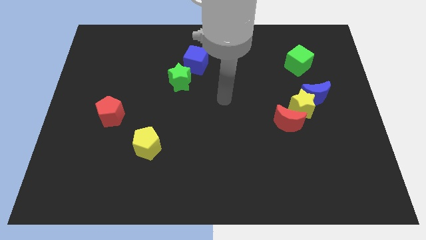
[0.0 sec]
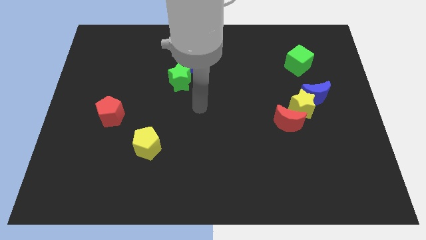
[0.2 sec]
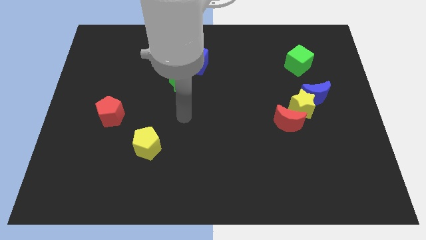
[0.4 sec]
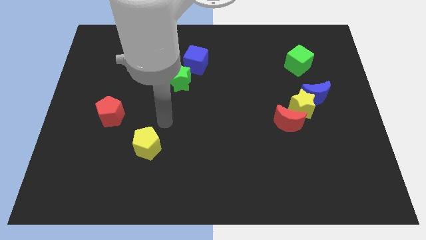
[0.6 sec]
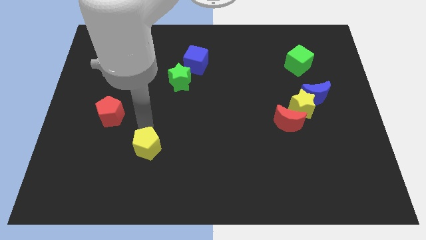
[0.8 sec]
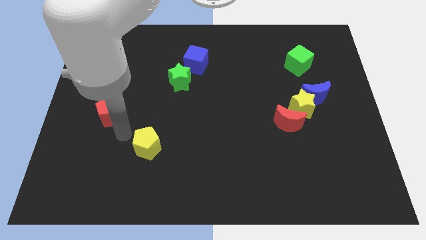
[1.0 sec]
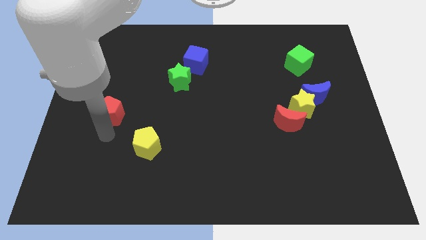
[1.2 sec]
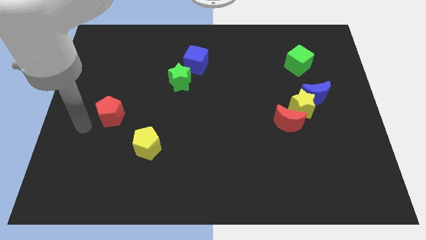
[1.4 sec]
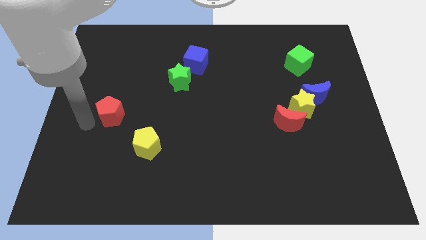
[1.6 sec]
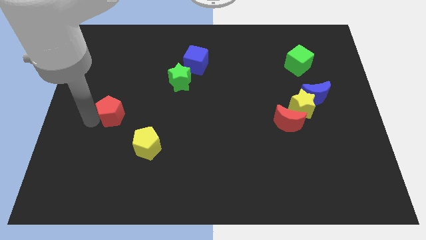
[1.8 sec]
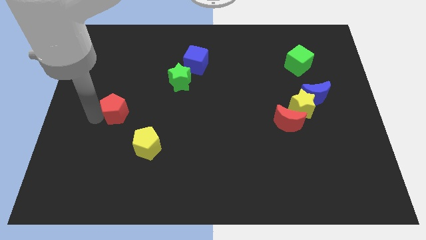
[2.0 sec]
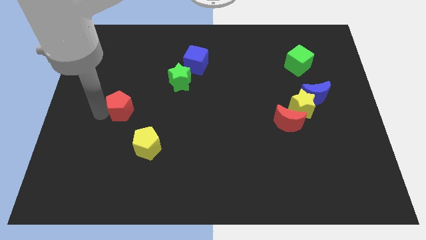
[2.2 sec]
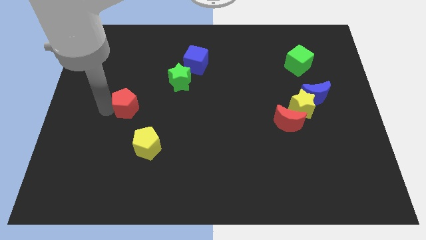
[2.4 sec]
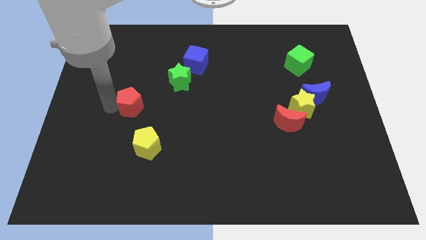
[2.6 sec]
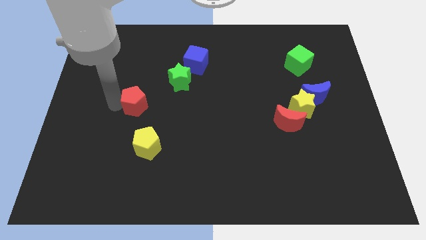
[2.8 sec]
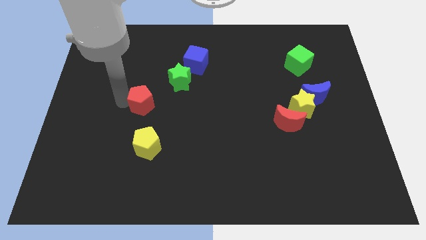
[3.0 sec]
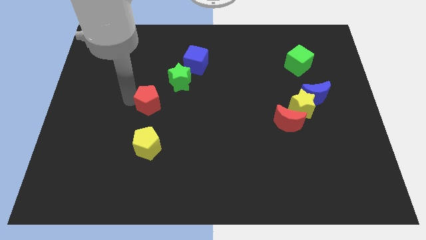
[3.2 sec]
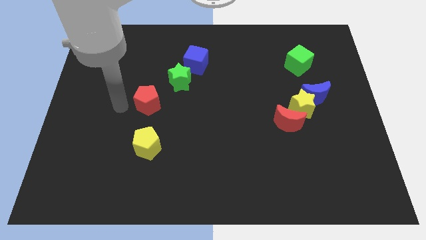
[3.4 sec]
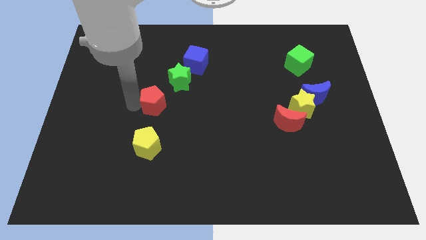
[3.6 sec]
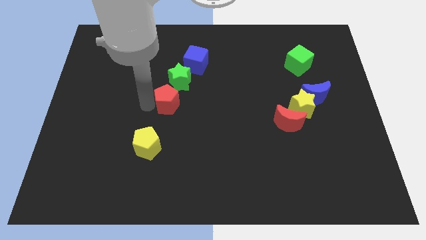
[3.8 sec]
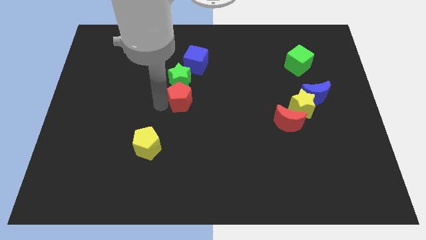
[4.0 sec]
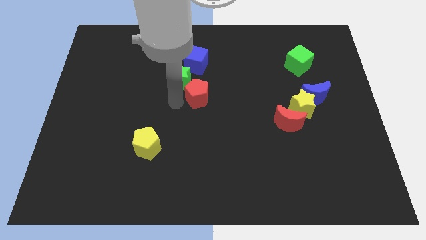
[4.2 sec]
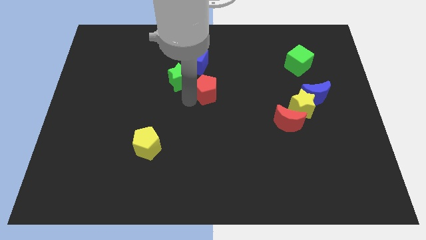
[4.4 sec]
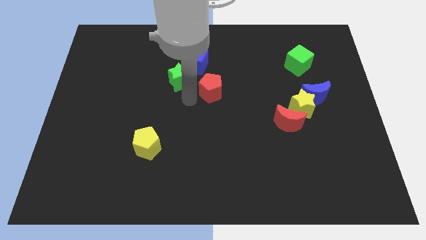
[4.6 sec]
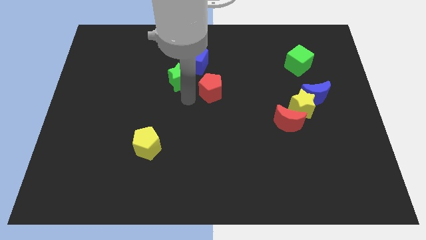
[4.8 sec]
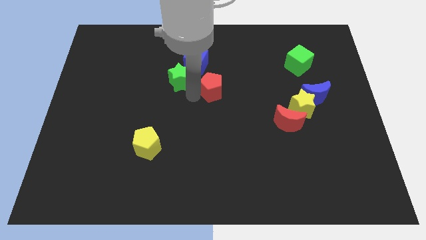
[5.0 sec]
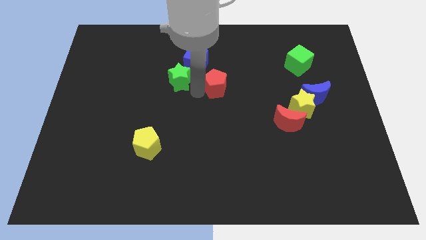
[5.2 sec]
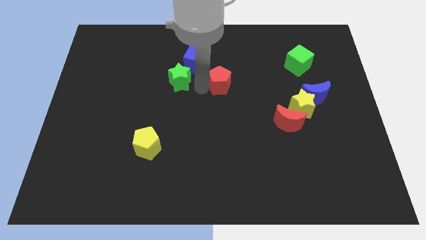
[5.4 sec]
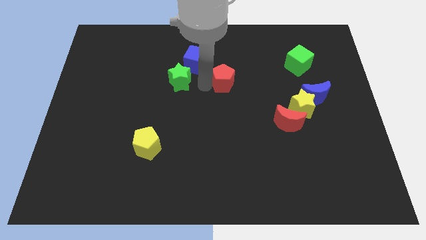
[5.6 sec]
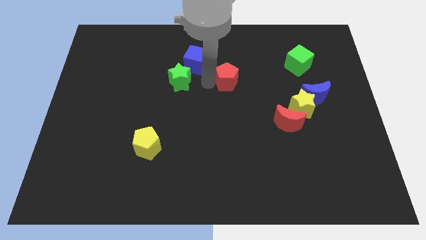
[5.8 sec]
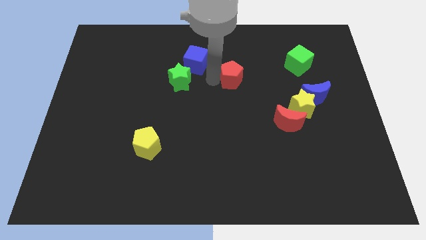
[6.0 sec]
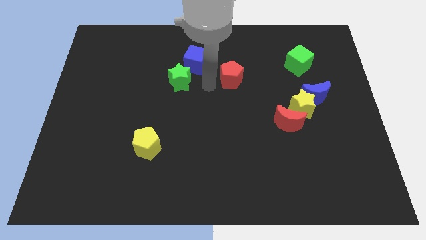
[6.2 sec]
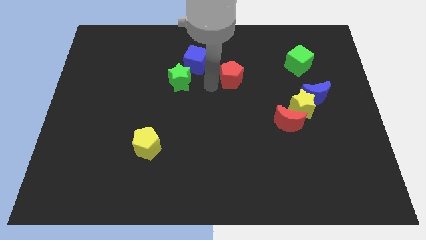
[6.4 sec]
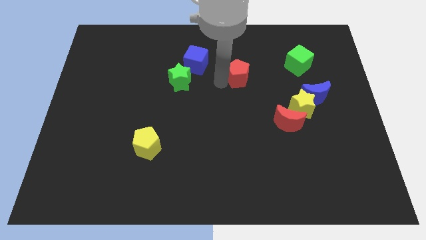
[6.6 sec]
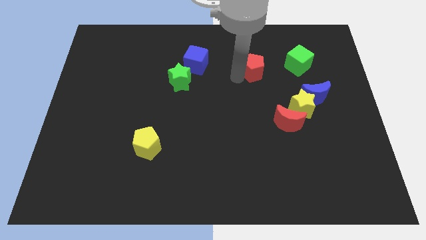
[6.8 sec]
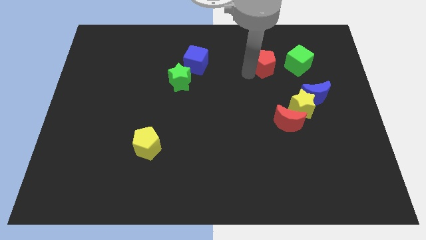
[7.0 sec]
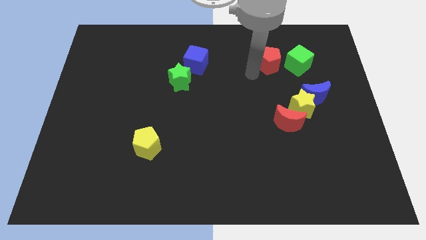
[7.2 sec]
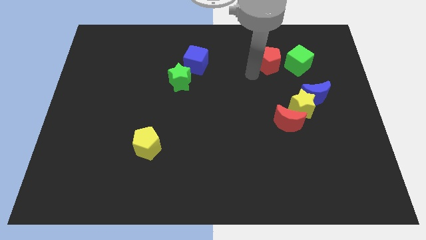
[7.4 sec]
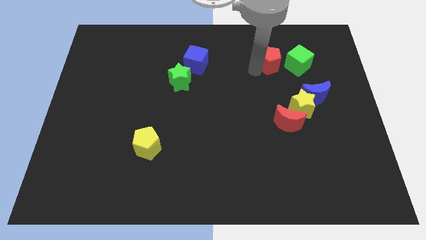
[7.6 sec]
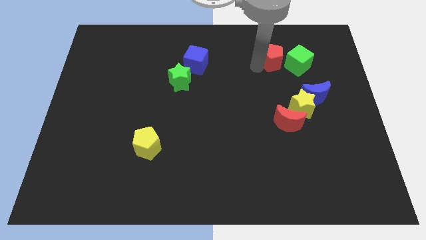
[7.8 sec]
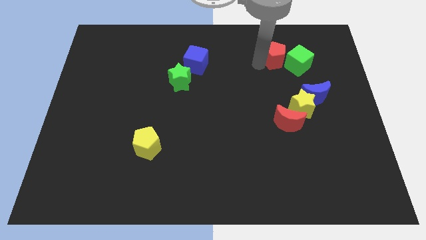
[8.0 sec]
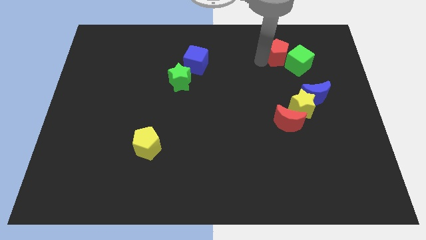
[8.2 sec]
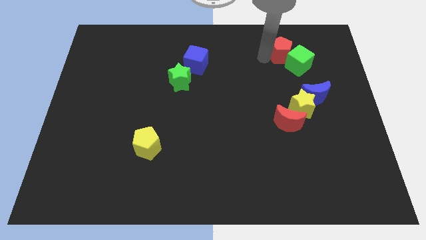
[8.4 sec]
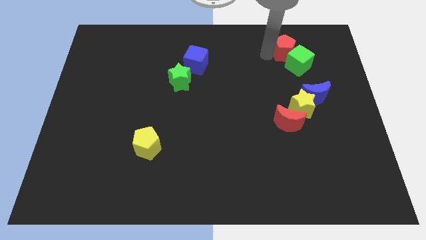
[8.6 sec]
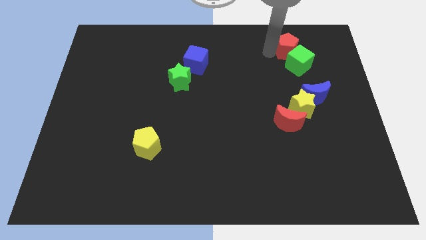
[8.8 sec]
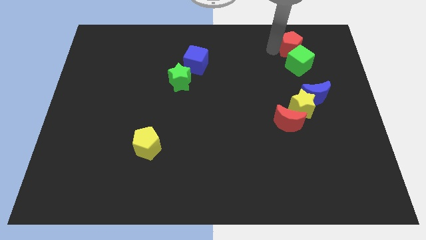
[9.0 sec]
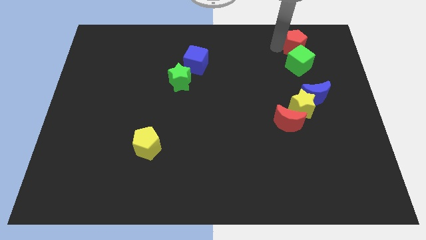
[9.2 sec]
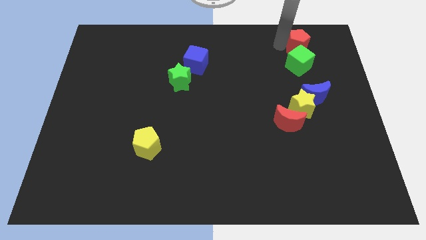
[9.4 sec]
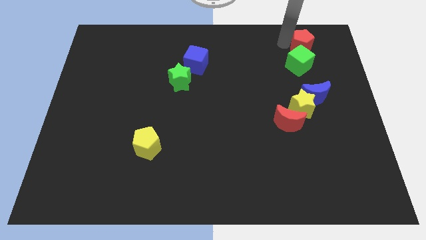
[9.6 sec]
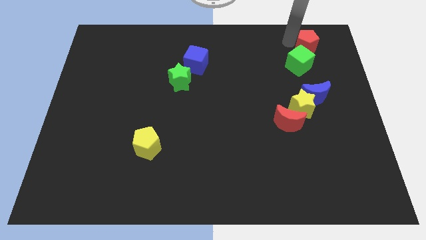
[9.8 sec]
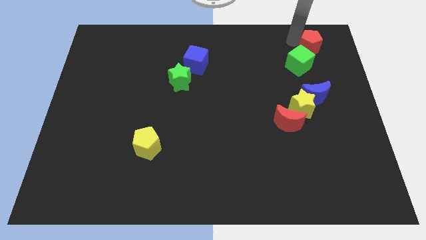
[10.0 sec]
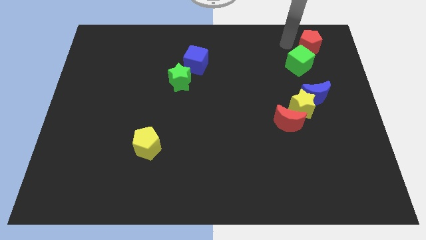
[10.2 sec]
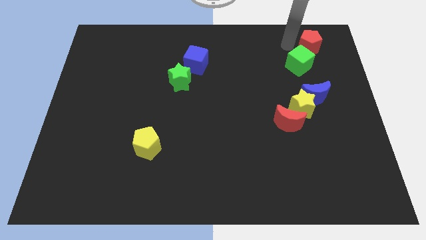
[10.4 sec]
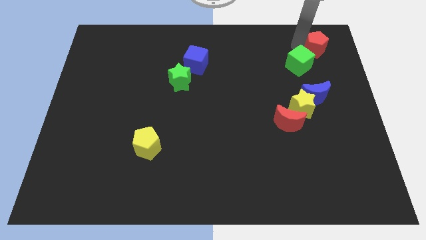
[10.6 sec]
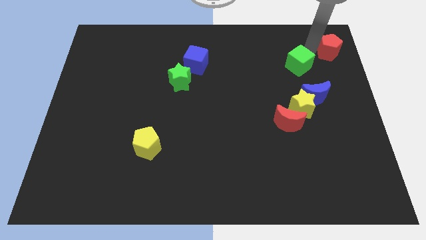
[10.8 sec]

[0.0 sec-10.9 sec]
slide the red pentagon to the upper right corner

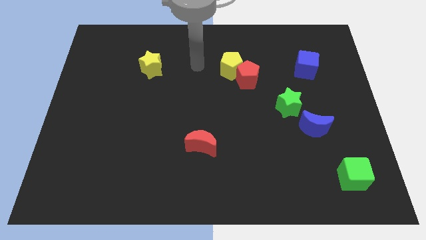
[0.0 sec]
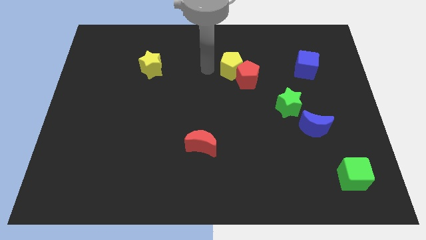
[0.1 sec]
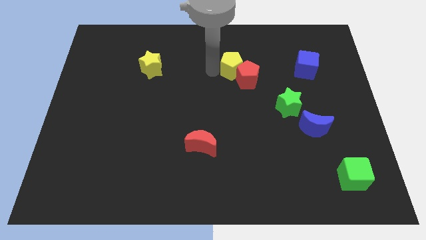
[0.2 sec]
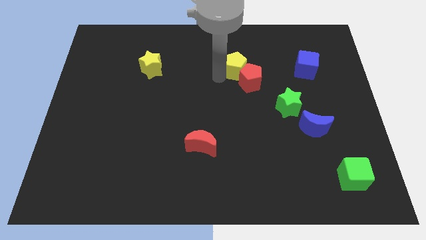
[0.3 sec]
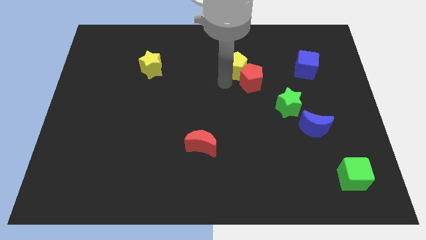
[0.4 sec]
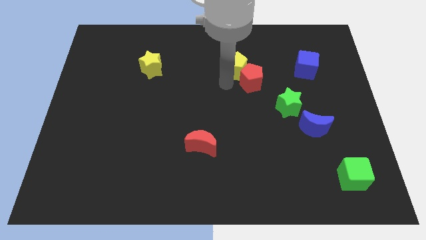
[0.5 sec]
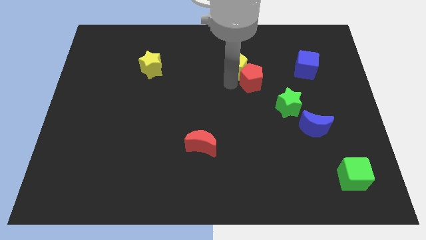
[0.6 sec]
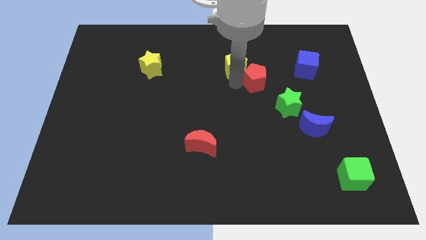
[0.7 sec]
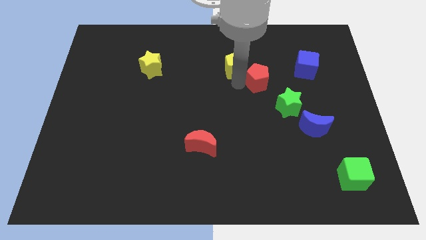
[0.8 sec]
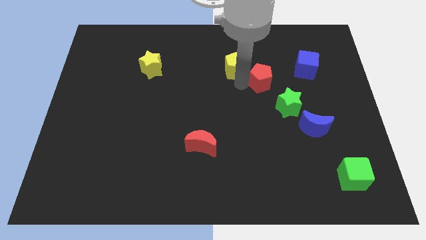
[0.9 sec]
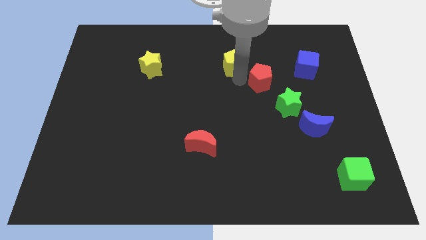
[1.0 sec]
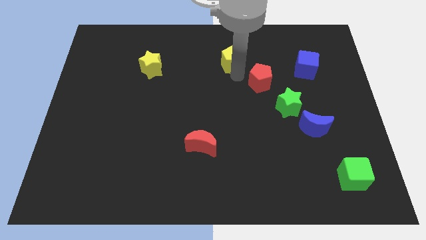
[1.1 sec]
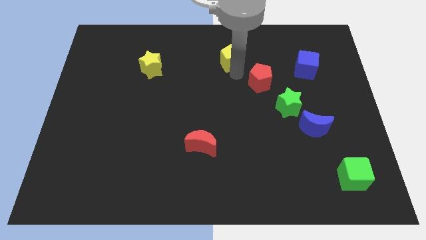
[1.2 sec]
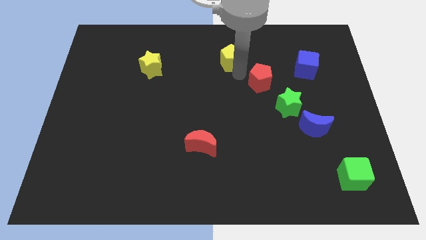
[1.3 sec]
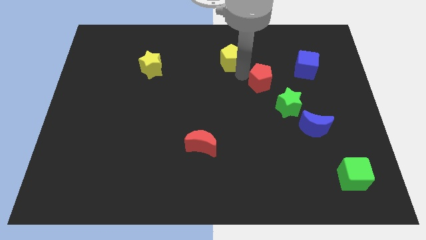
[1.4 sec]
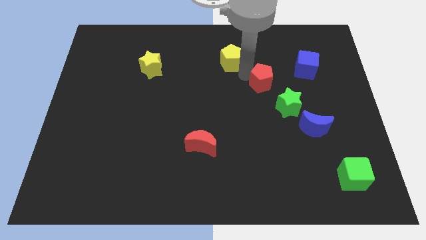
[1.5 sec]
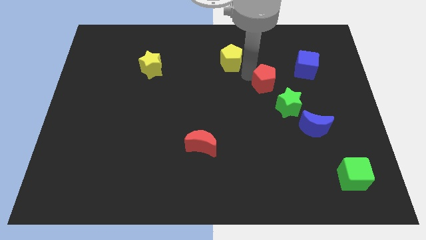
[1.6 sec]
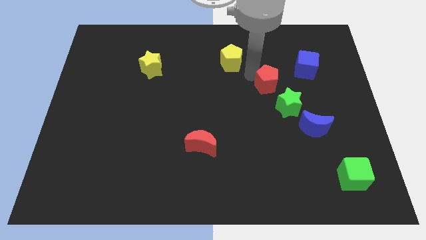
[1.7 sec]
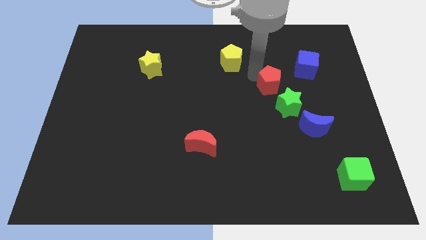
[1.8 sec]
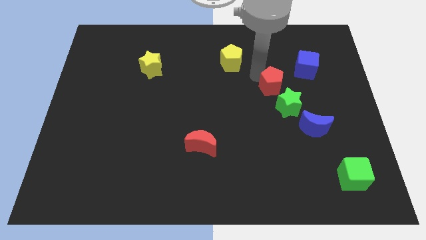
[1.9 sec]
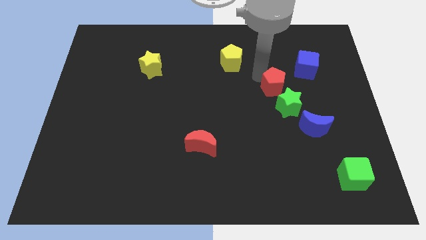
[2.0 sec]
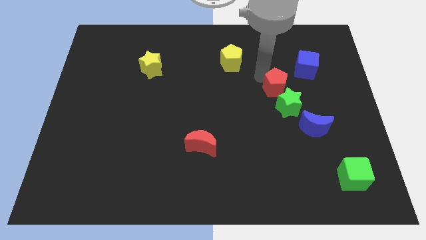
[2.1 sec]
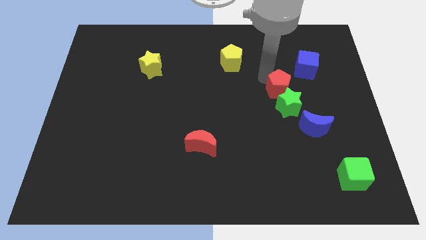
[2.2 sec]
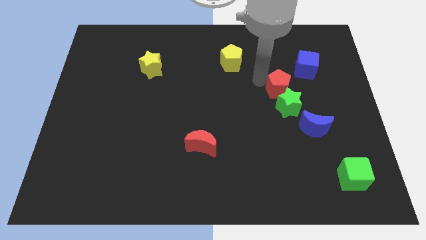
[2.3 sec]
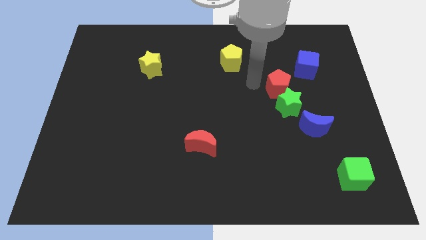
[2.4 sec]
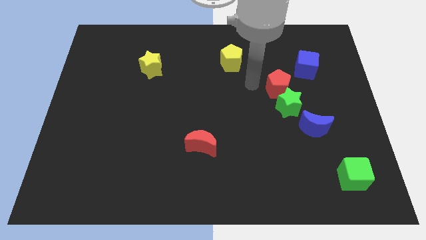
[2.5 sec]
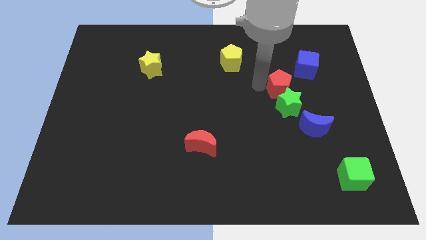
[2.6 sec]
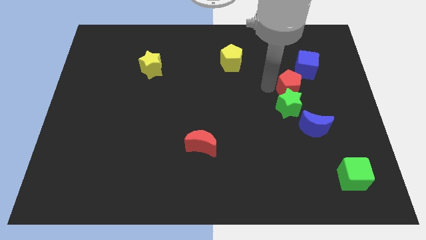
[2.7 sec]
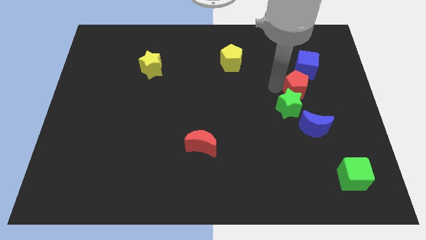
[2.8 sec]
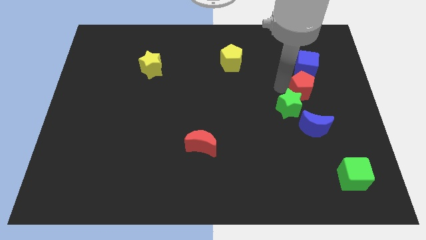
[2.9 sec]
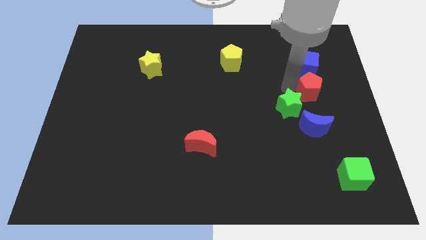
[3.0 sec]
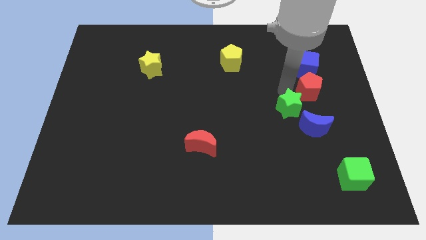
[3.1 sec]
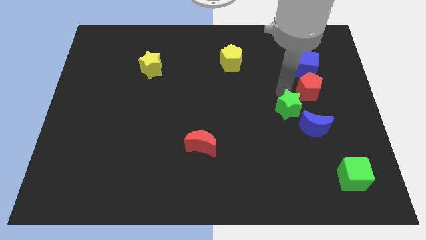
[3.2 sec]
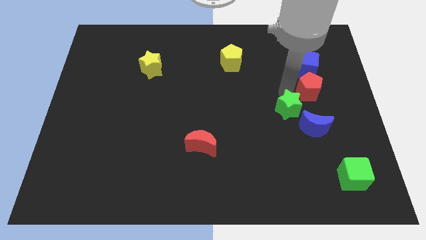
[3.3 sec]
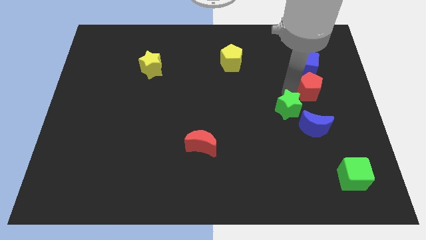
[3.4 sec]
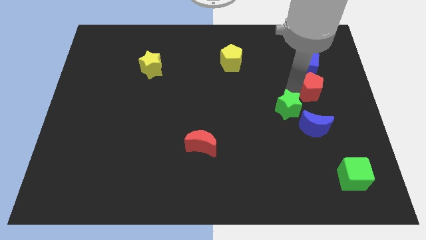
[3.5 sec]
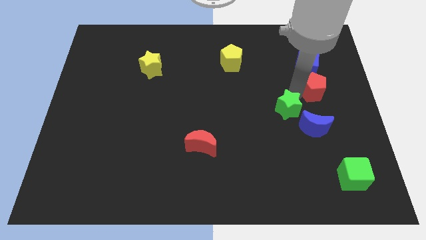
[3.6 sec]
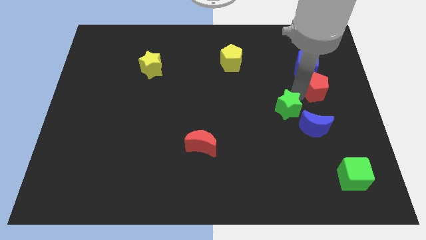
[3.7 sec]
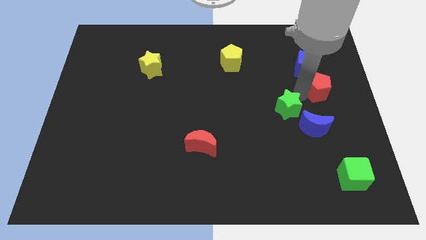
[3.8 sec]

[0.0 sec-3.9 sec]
put the red pentagon to the right side
